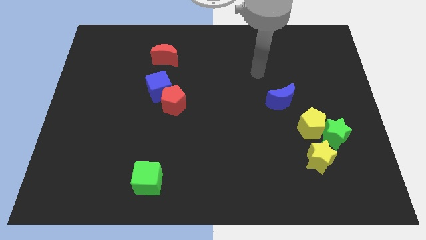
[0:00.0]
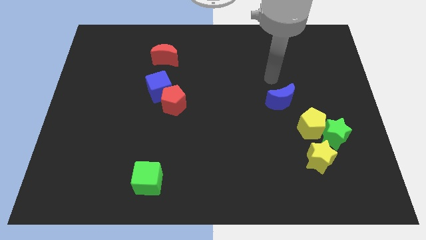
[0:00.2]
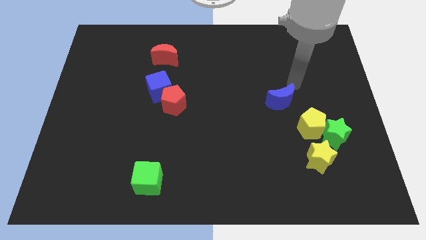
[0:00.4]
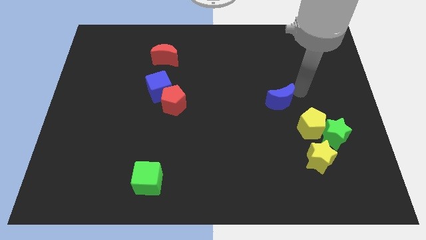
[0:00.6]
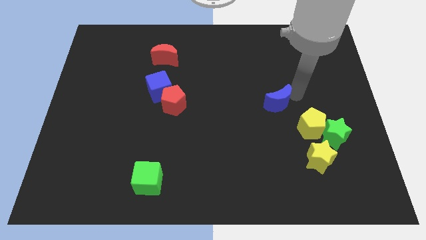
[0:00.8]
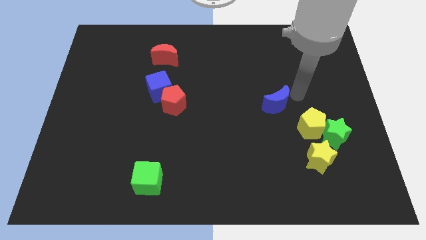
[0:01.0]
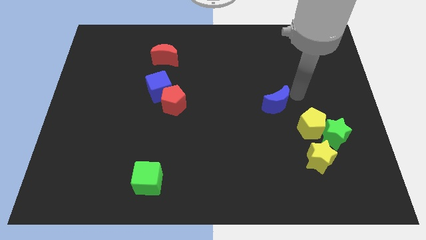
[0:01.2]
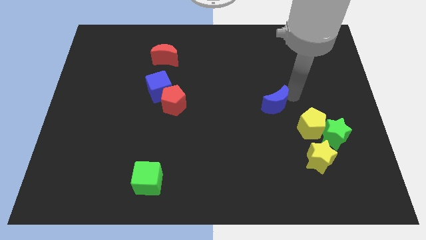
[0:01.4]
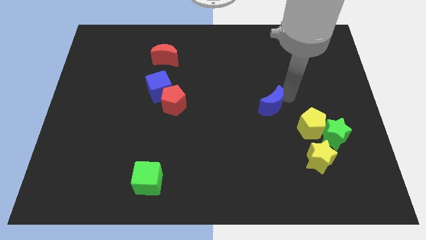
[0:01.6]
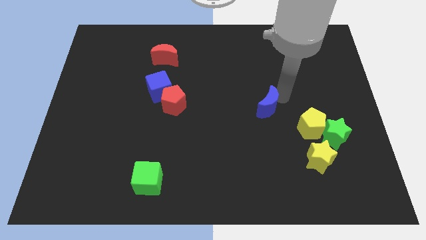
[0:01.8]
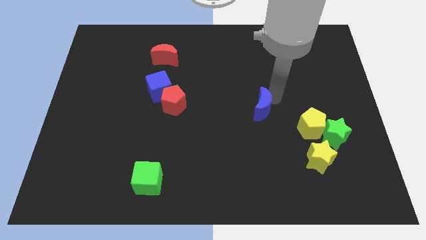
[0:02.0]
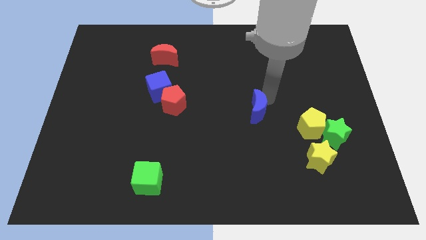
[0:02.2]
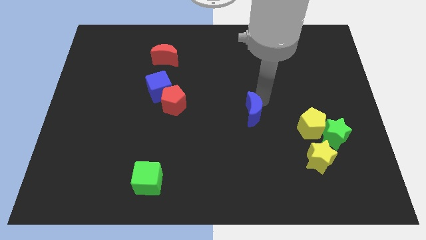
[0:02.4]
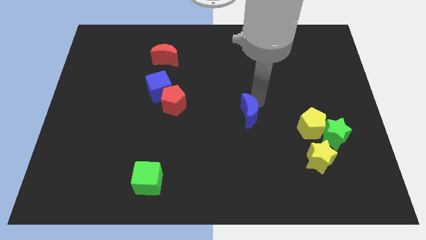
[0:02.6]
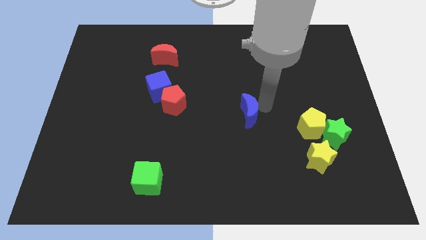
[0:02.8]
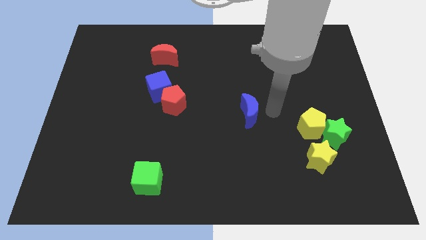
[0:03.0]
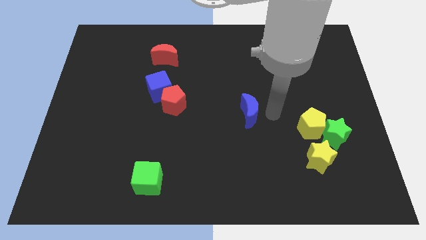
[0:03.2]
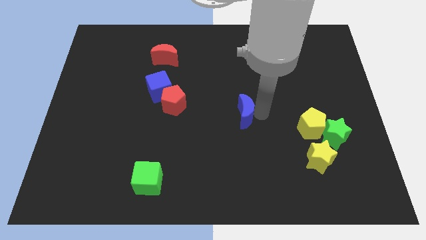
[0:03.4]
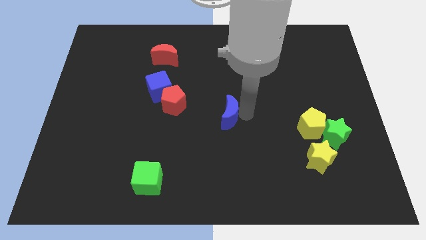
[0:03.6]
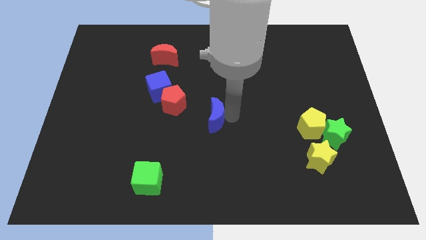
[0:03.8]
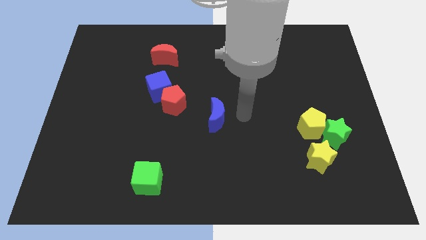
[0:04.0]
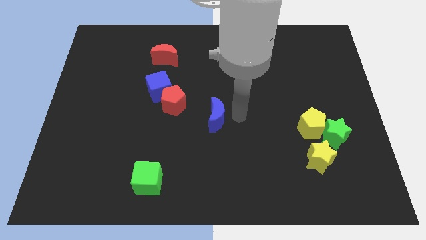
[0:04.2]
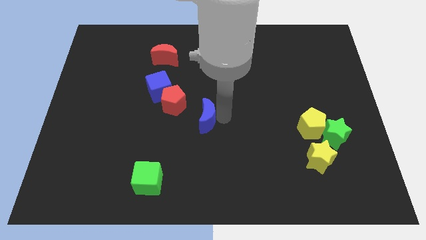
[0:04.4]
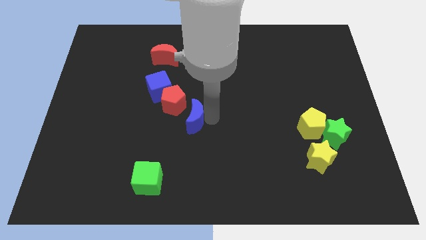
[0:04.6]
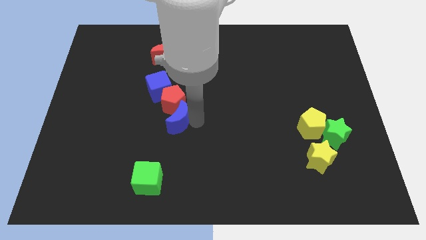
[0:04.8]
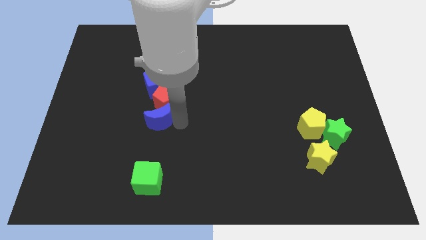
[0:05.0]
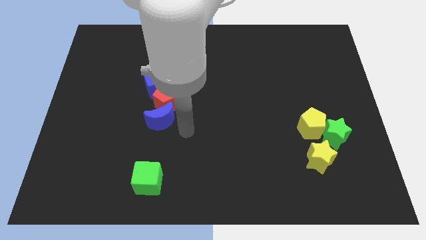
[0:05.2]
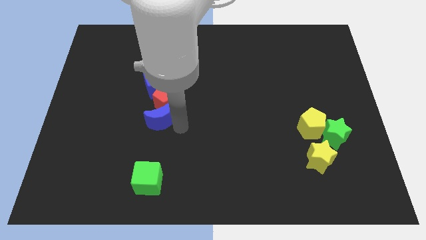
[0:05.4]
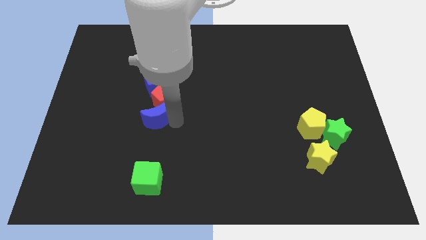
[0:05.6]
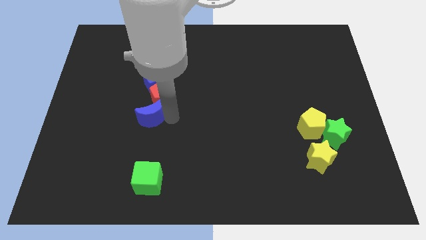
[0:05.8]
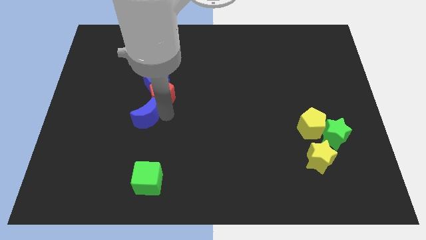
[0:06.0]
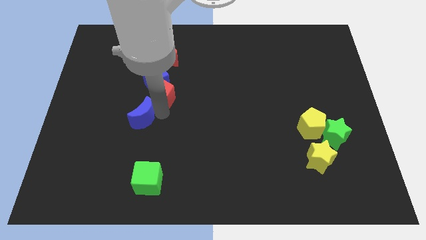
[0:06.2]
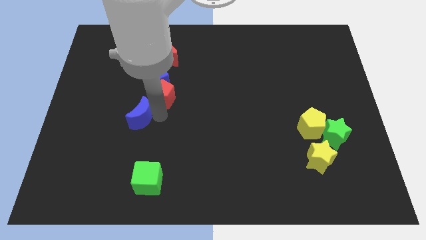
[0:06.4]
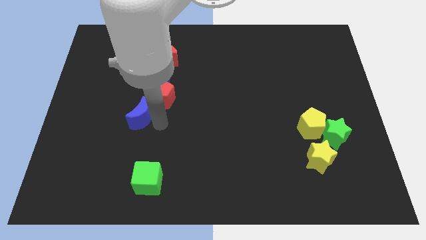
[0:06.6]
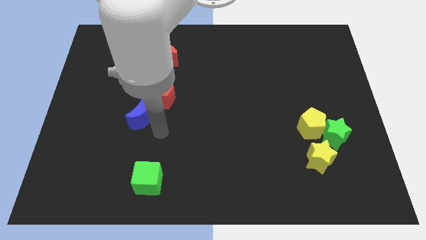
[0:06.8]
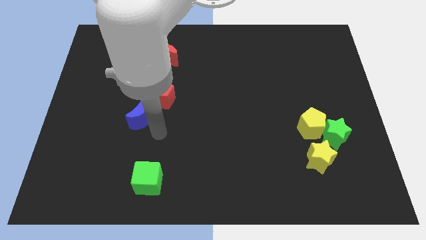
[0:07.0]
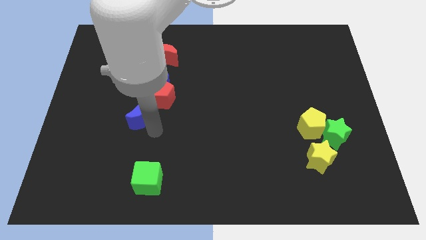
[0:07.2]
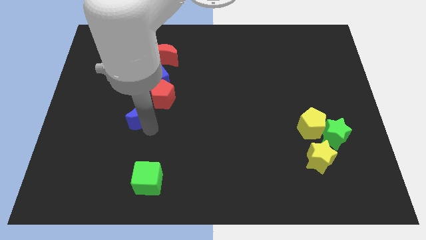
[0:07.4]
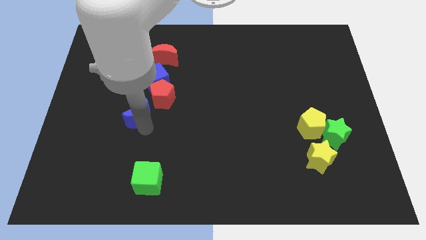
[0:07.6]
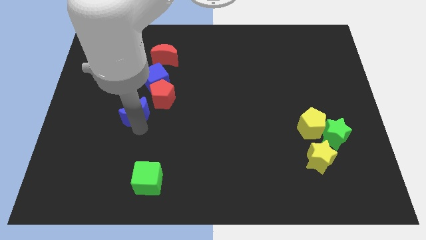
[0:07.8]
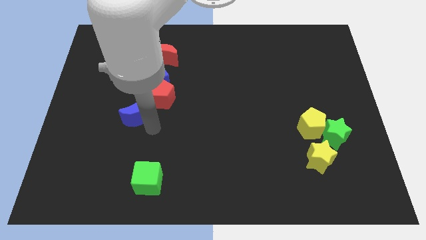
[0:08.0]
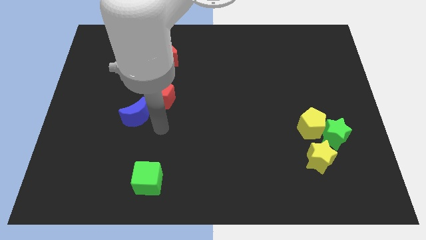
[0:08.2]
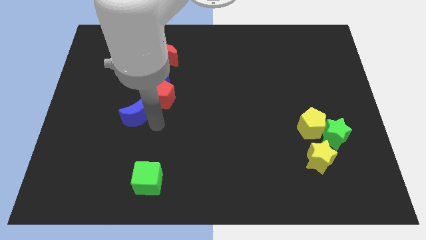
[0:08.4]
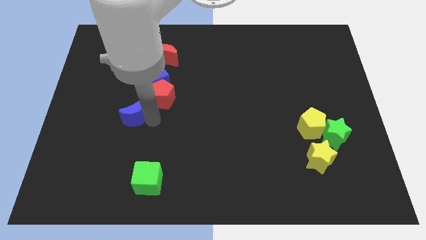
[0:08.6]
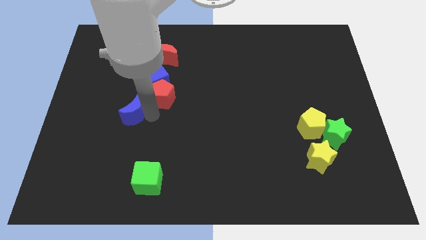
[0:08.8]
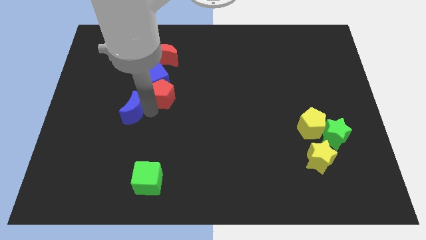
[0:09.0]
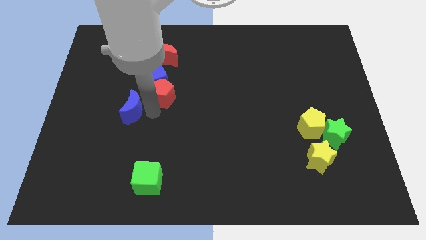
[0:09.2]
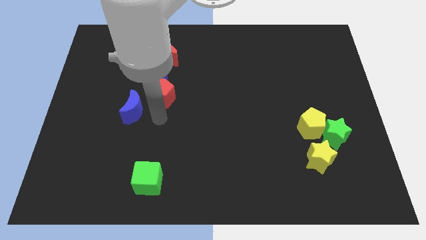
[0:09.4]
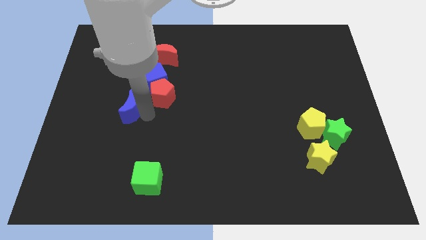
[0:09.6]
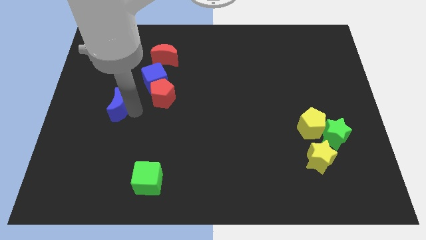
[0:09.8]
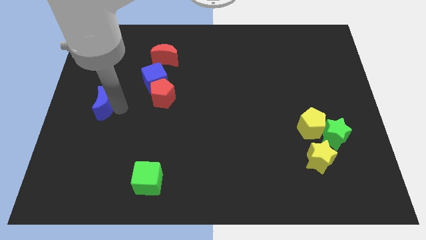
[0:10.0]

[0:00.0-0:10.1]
move the blue moon to the center left
